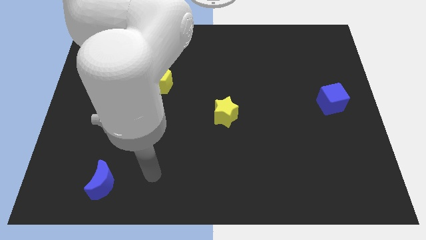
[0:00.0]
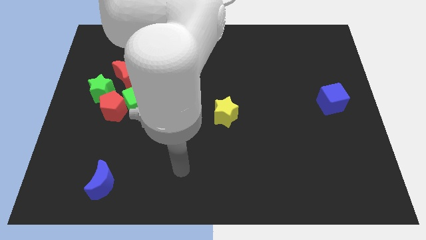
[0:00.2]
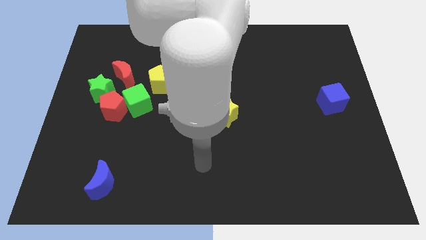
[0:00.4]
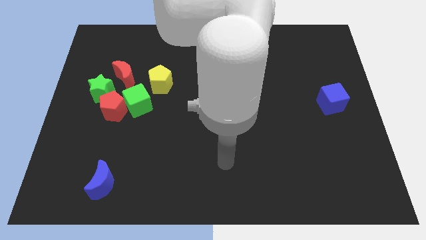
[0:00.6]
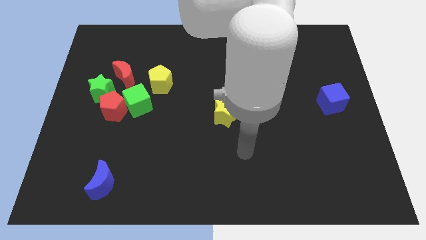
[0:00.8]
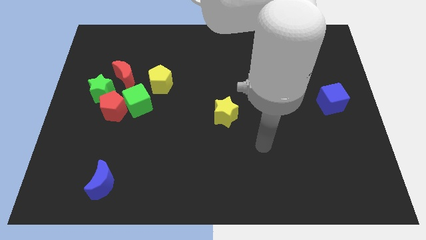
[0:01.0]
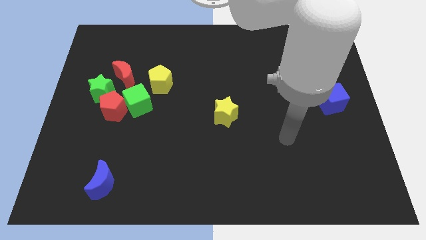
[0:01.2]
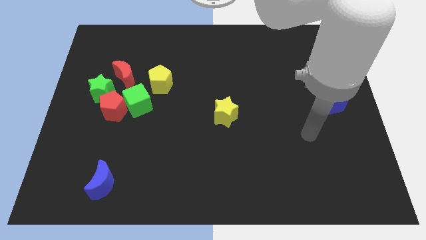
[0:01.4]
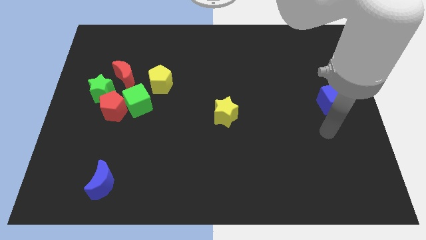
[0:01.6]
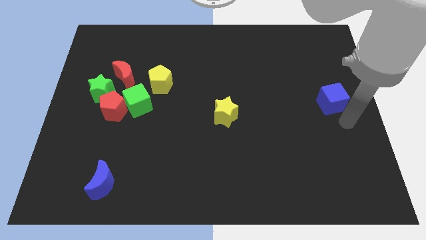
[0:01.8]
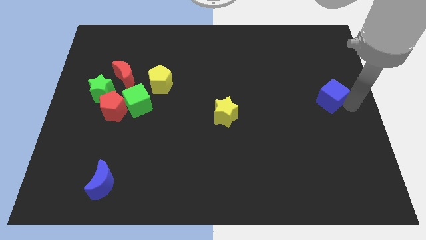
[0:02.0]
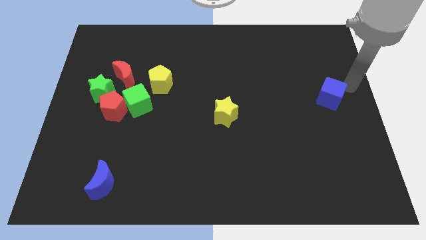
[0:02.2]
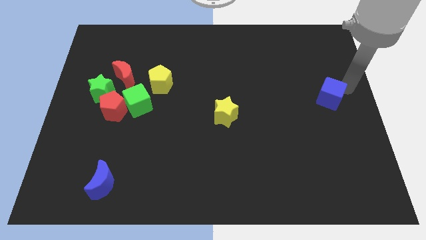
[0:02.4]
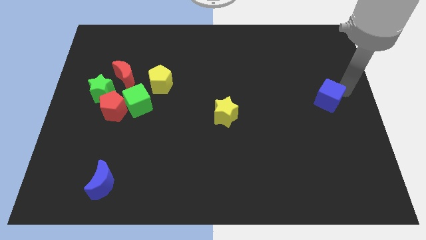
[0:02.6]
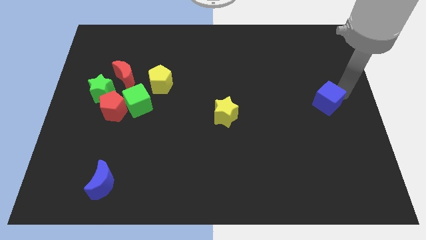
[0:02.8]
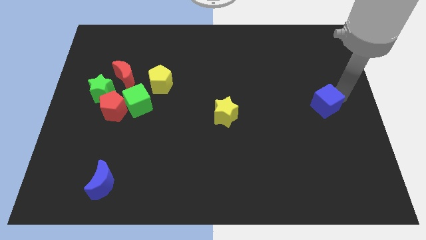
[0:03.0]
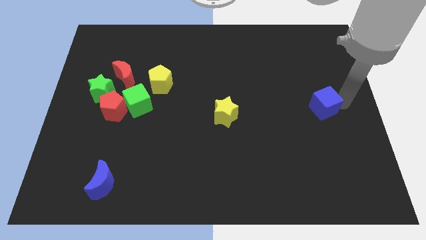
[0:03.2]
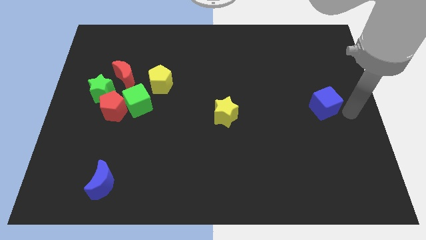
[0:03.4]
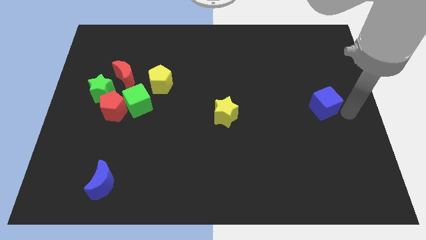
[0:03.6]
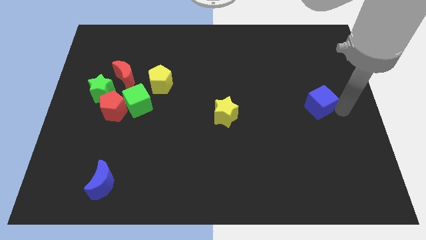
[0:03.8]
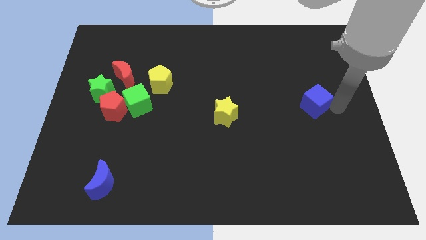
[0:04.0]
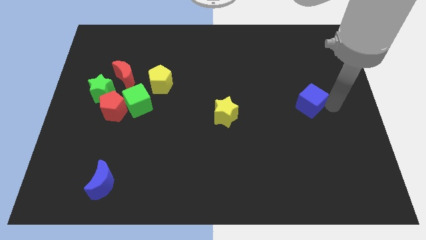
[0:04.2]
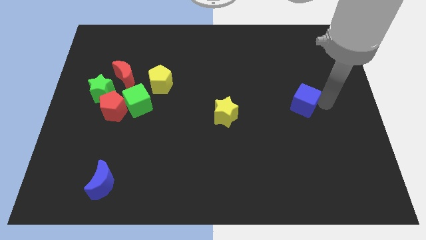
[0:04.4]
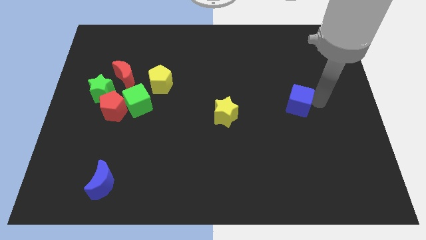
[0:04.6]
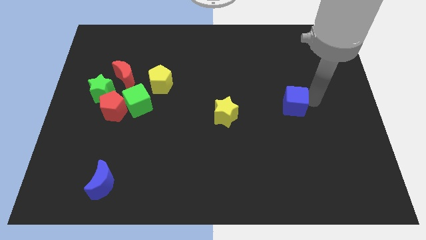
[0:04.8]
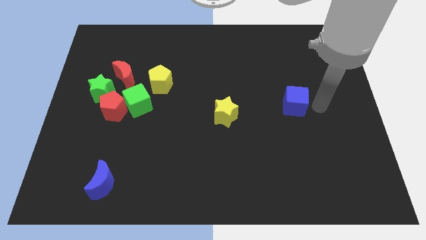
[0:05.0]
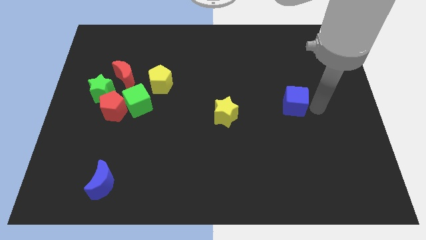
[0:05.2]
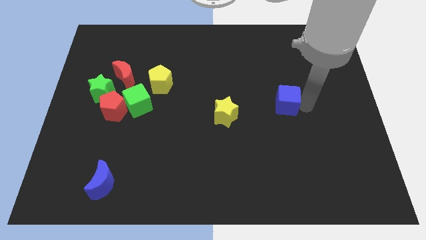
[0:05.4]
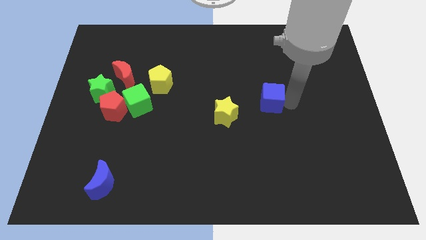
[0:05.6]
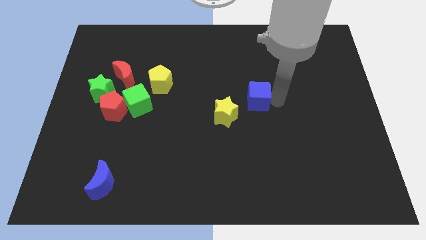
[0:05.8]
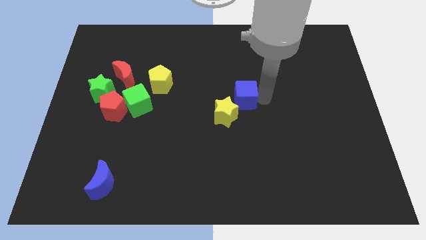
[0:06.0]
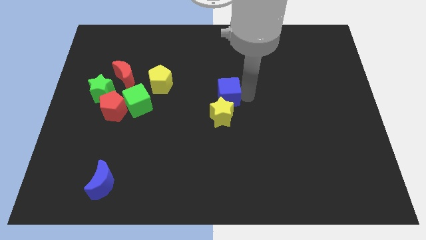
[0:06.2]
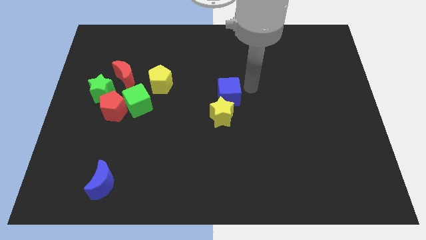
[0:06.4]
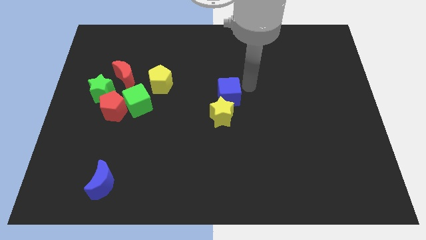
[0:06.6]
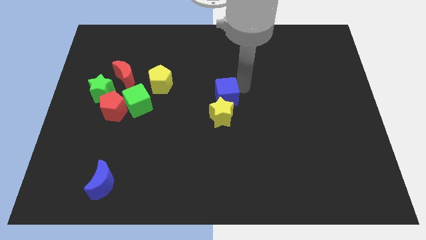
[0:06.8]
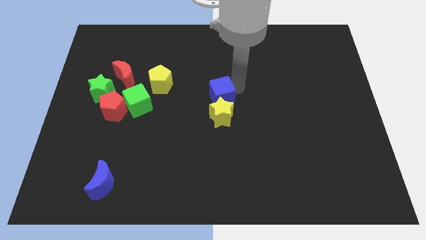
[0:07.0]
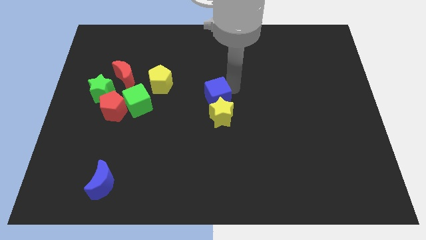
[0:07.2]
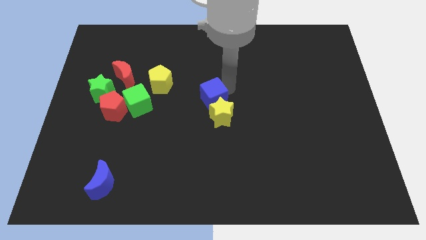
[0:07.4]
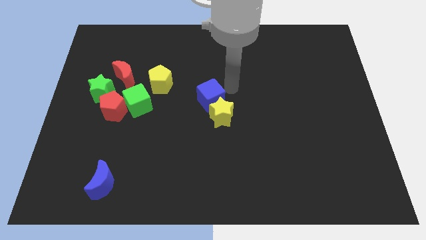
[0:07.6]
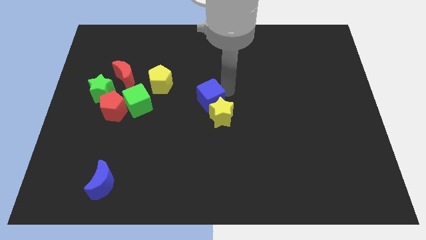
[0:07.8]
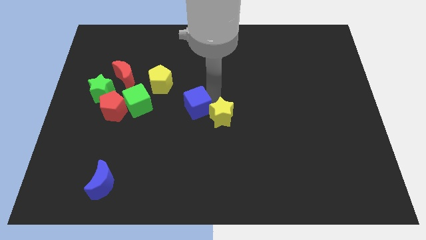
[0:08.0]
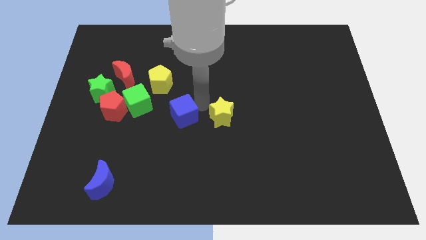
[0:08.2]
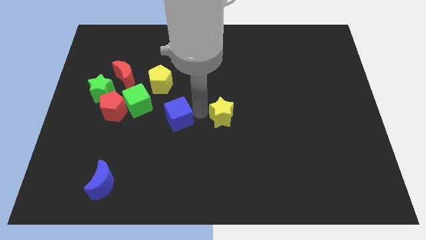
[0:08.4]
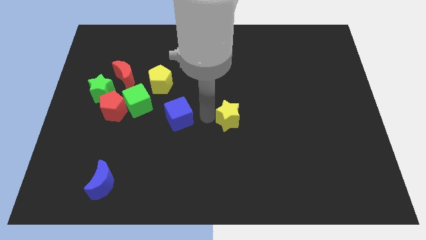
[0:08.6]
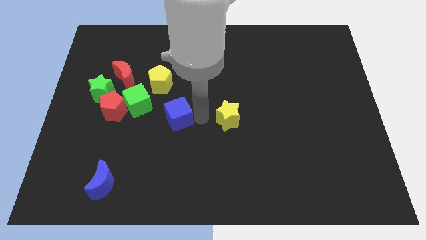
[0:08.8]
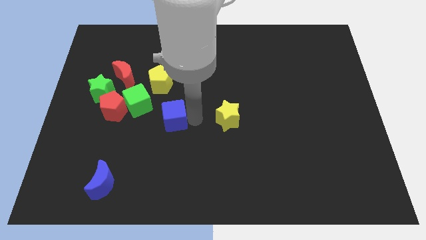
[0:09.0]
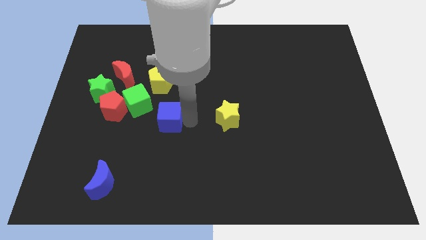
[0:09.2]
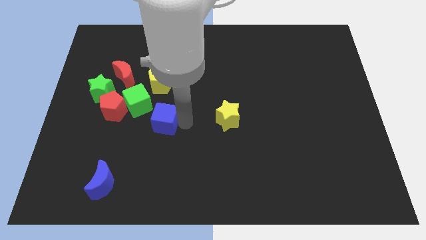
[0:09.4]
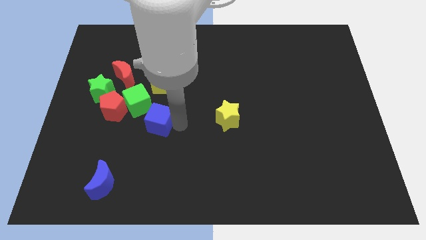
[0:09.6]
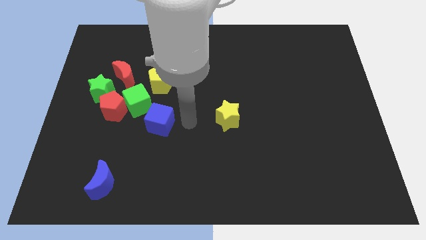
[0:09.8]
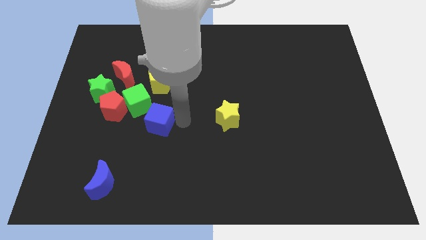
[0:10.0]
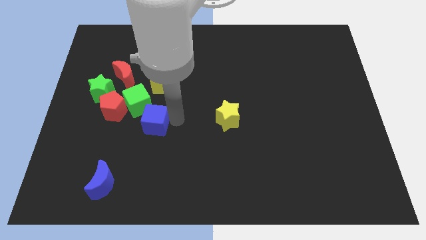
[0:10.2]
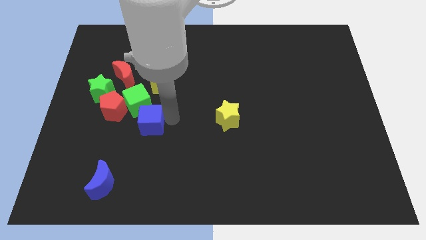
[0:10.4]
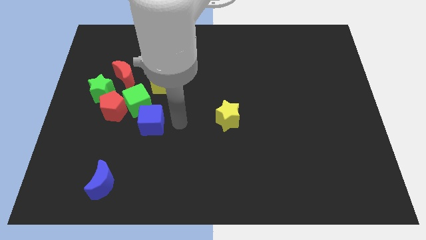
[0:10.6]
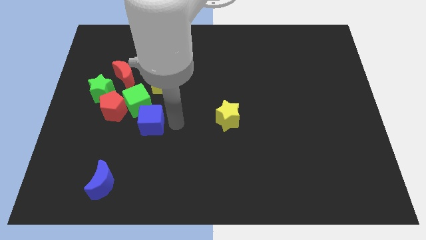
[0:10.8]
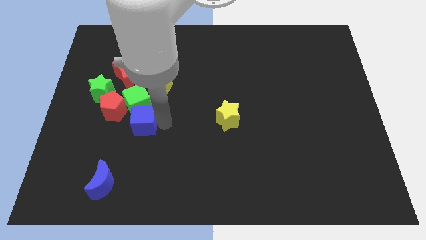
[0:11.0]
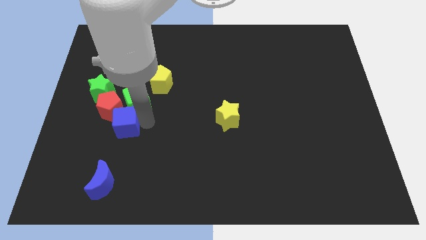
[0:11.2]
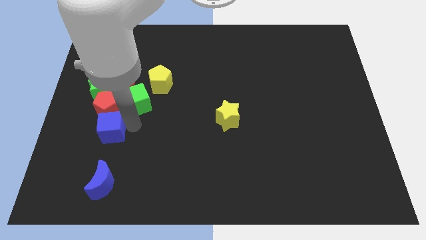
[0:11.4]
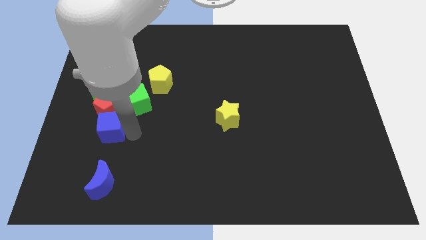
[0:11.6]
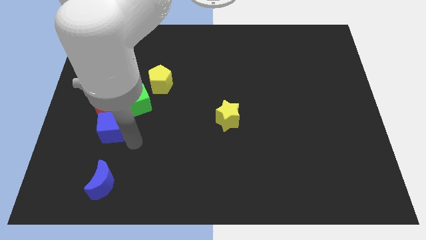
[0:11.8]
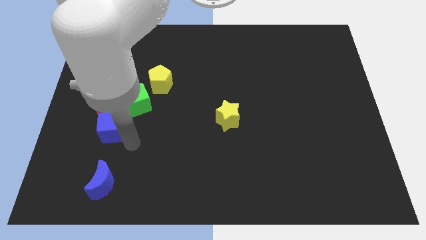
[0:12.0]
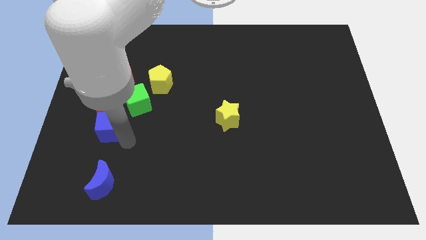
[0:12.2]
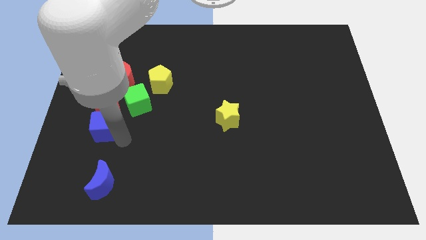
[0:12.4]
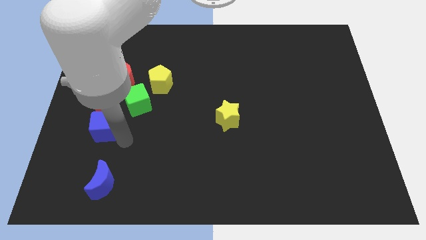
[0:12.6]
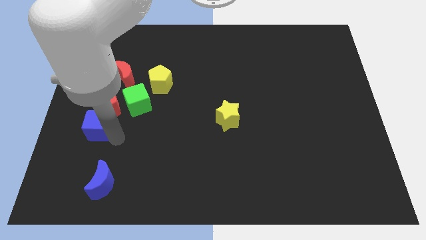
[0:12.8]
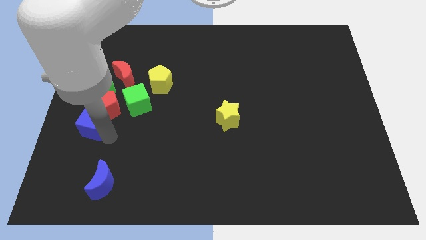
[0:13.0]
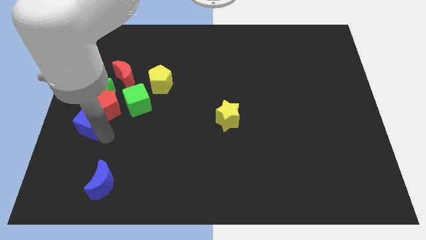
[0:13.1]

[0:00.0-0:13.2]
move the blue cube to the center left

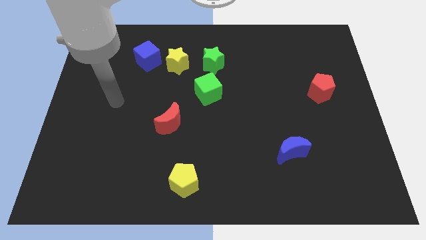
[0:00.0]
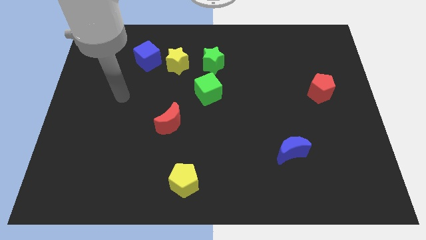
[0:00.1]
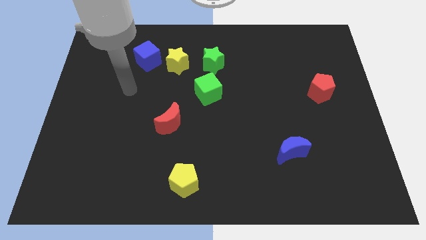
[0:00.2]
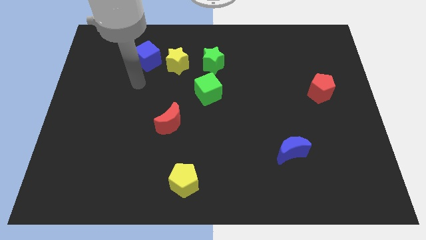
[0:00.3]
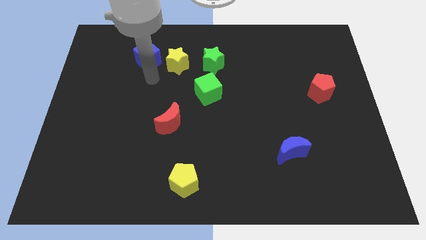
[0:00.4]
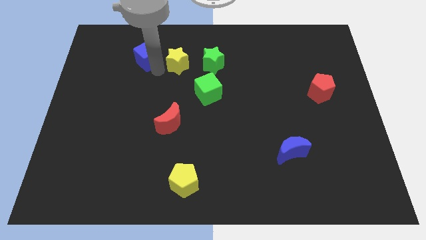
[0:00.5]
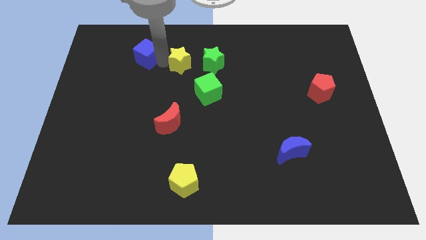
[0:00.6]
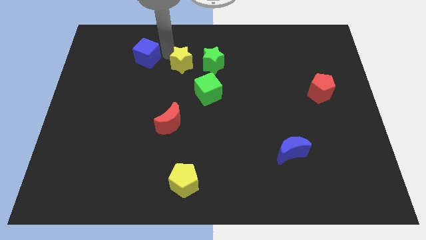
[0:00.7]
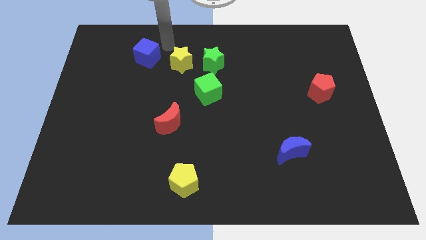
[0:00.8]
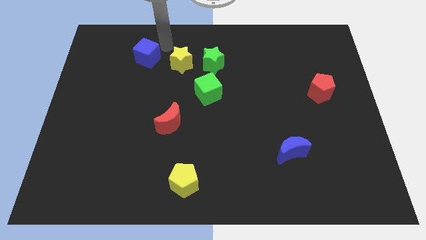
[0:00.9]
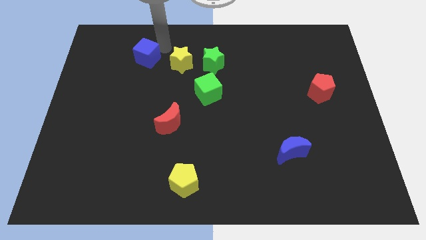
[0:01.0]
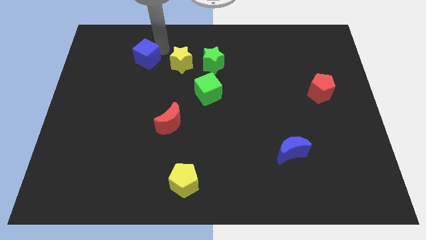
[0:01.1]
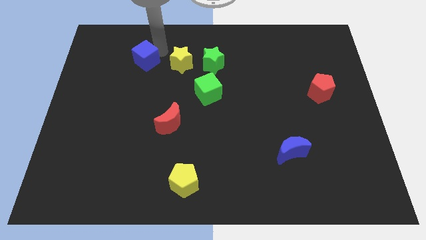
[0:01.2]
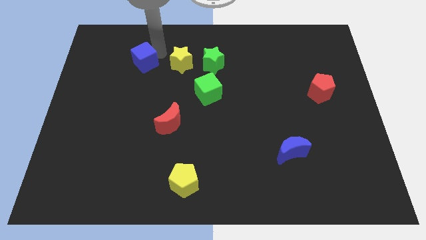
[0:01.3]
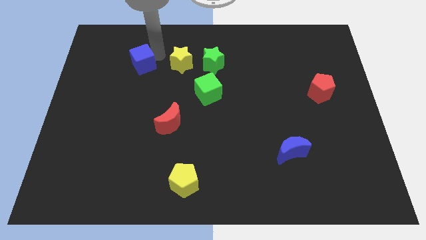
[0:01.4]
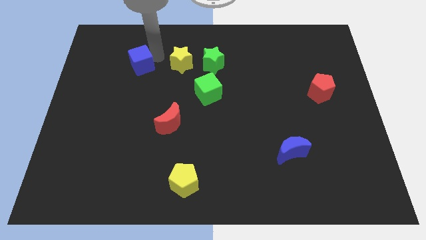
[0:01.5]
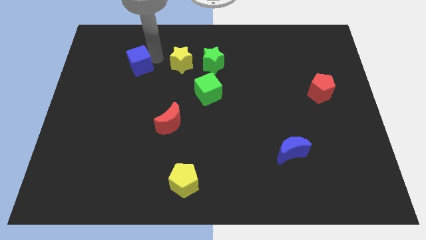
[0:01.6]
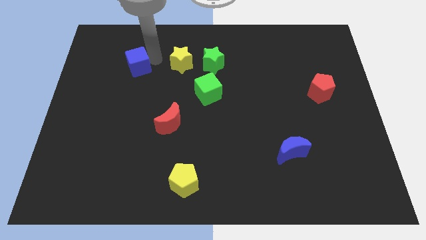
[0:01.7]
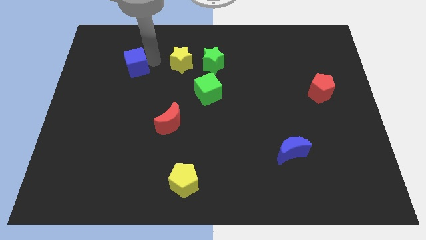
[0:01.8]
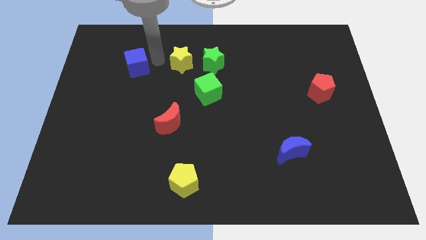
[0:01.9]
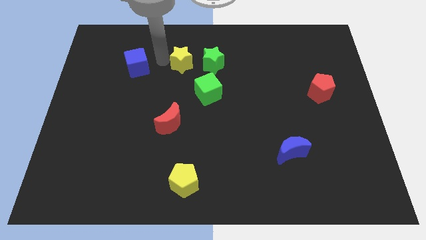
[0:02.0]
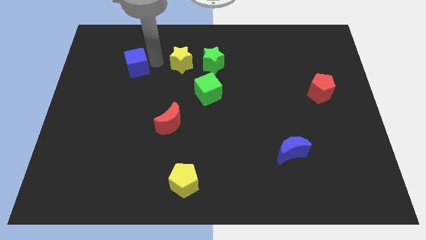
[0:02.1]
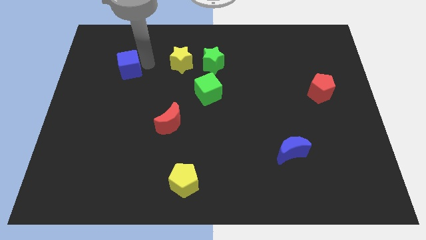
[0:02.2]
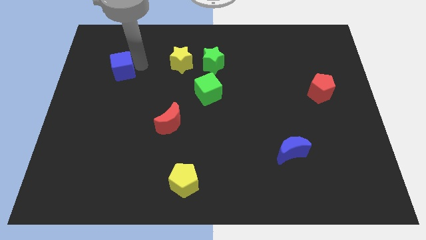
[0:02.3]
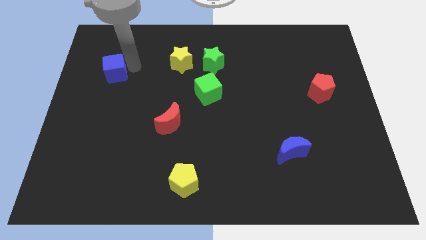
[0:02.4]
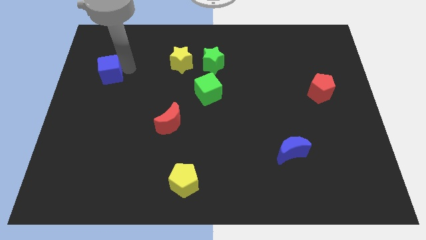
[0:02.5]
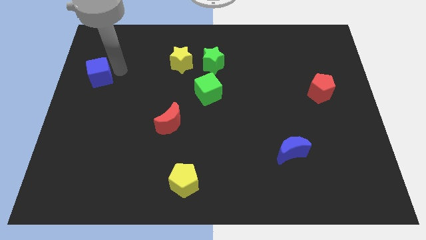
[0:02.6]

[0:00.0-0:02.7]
slide the blue cube to the left side of the board
